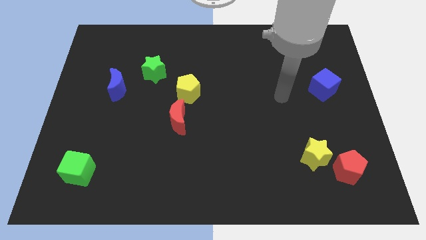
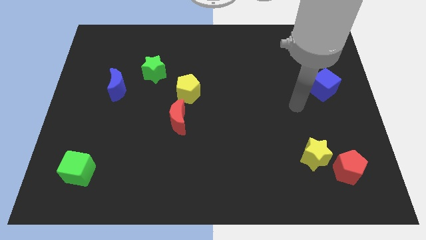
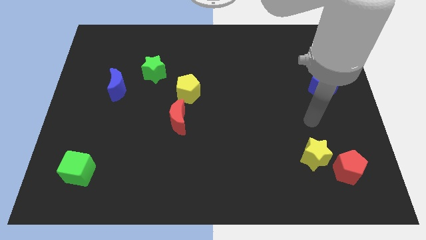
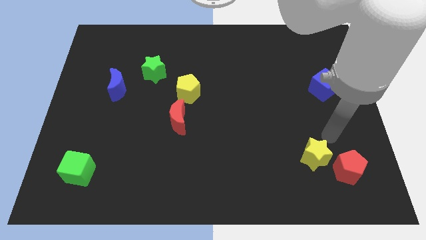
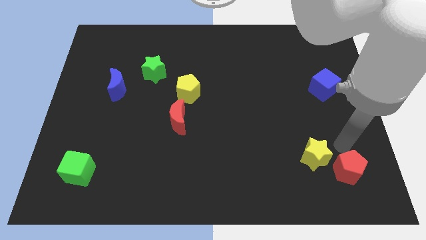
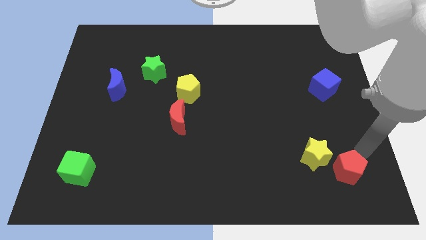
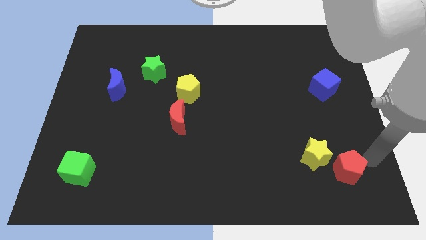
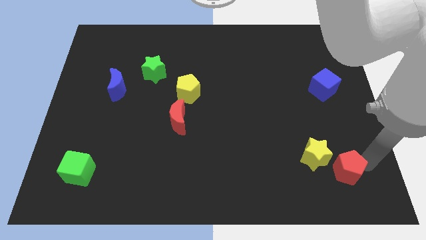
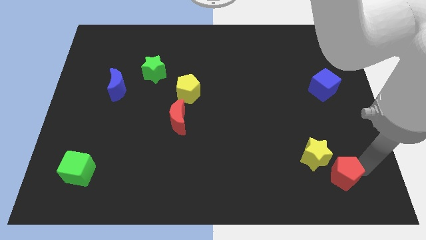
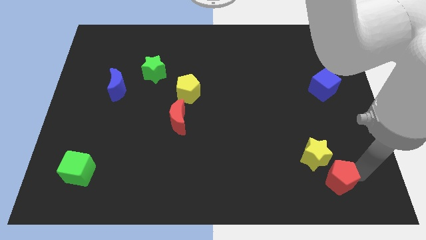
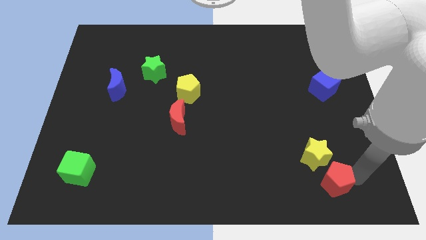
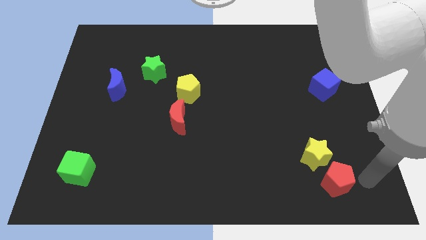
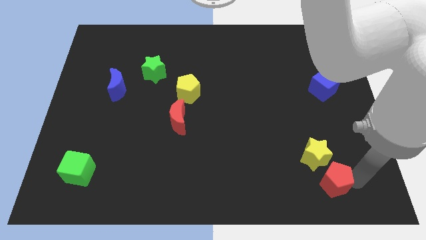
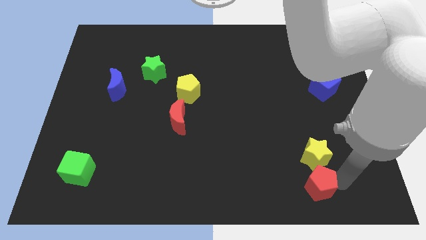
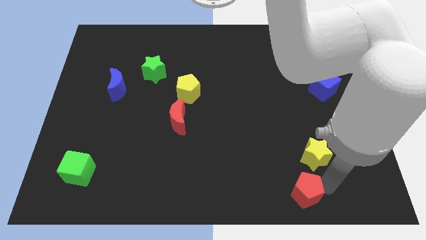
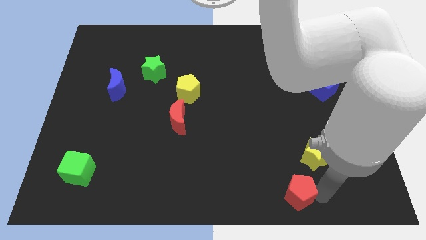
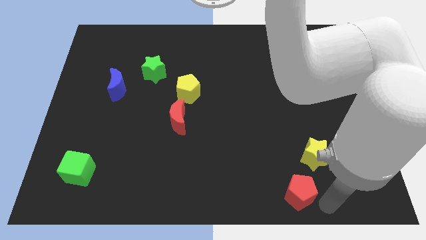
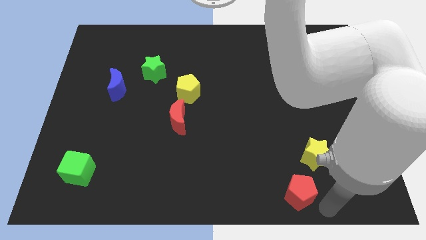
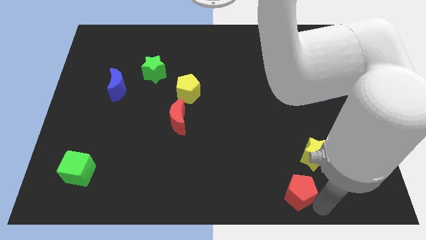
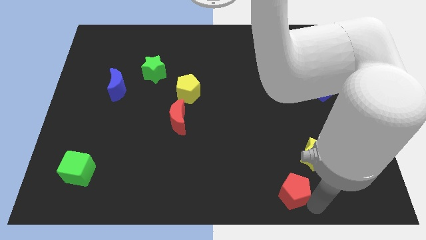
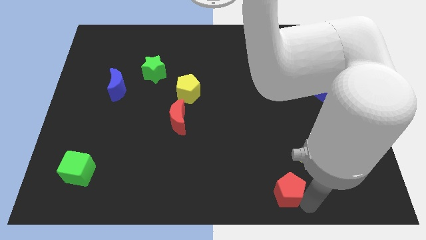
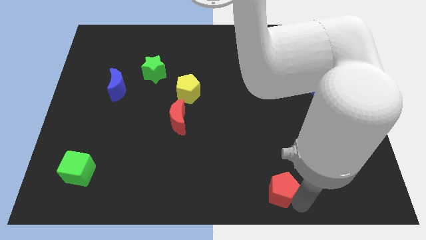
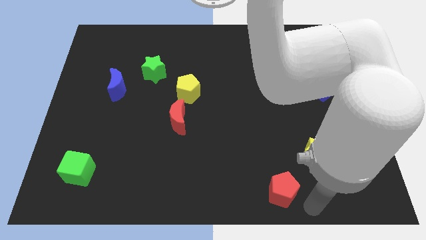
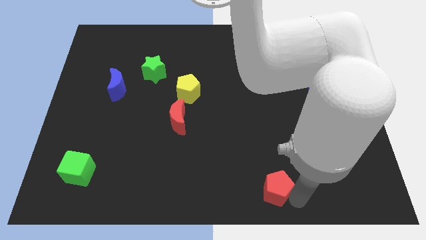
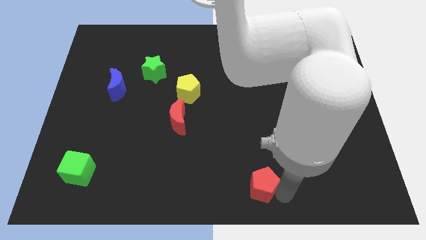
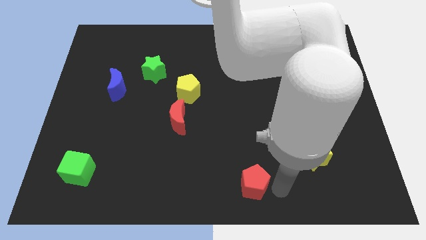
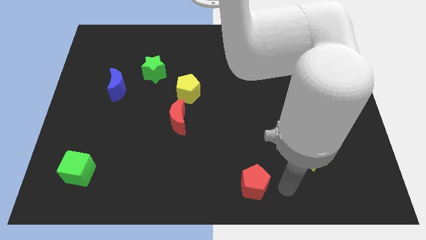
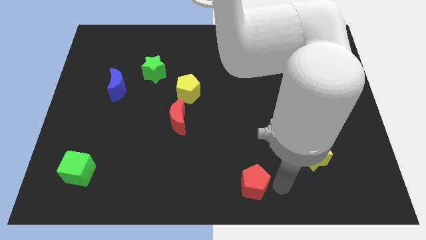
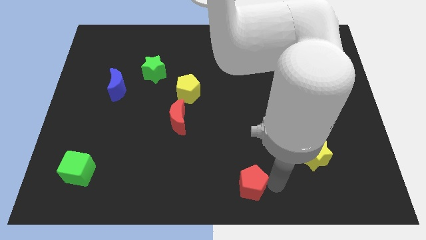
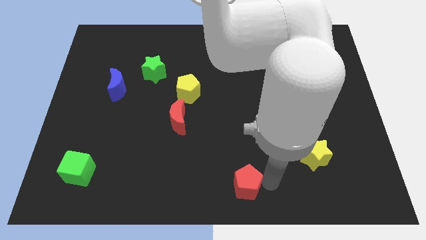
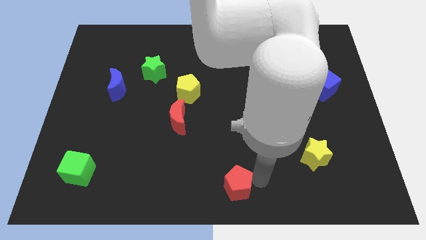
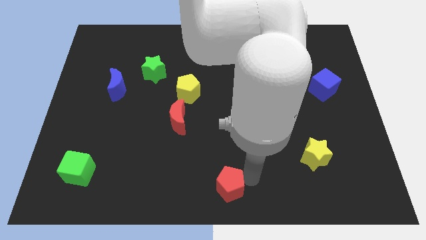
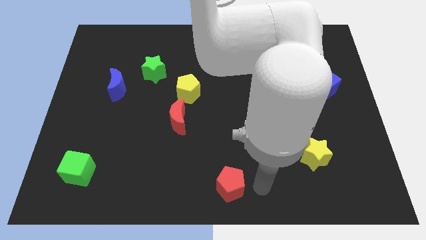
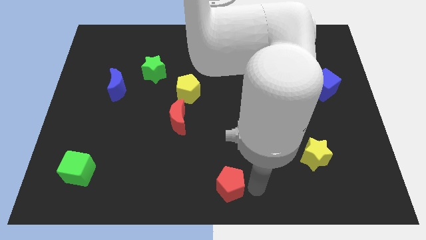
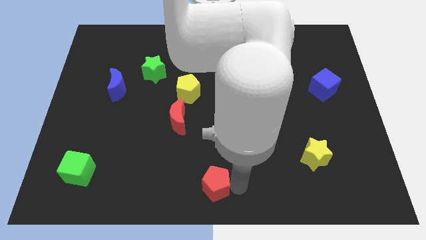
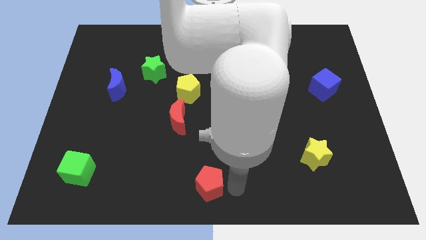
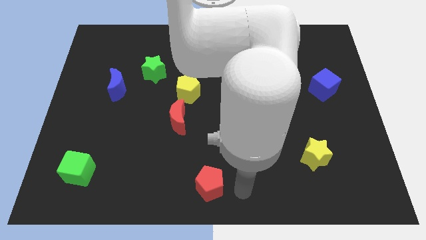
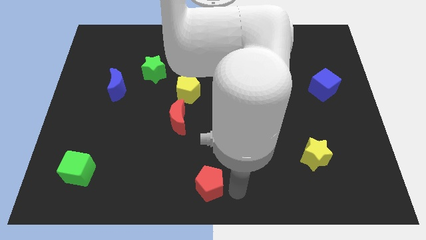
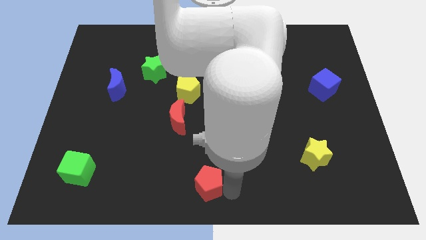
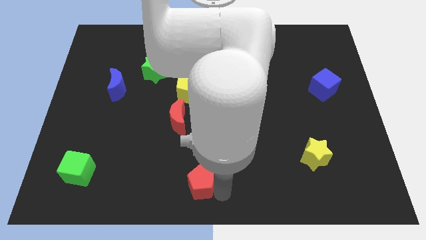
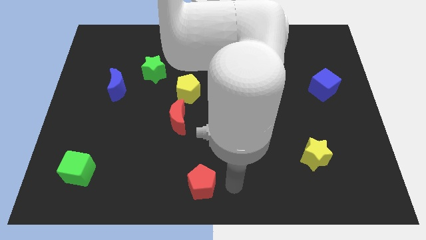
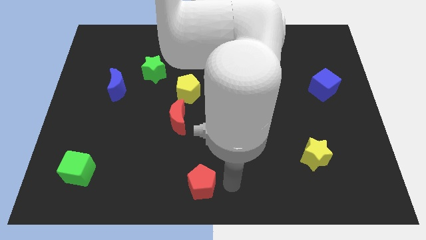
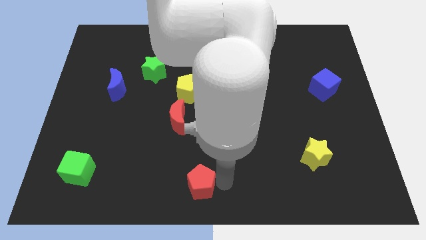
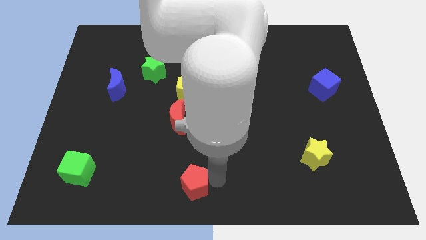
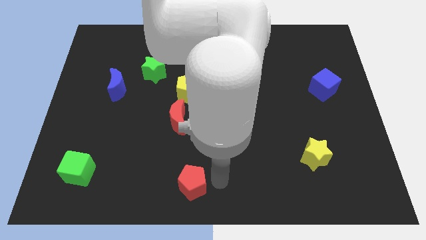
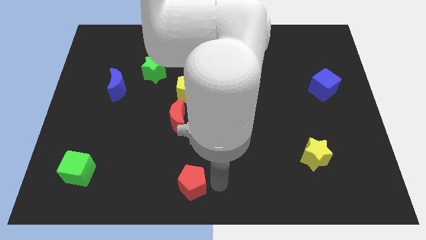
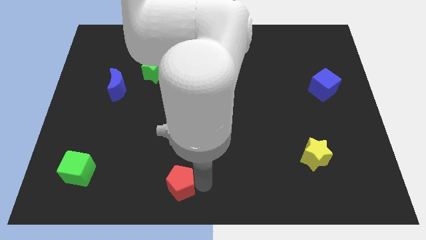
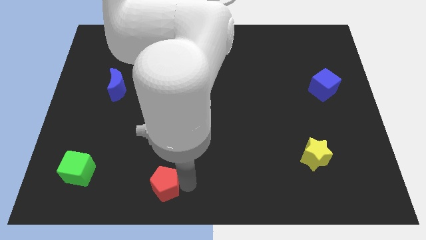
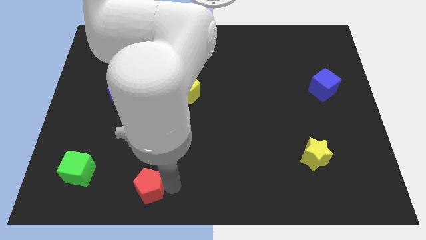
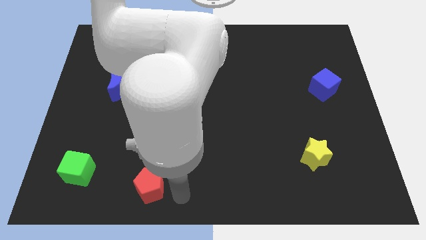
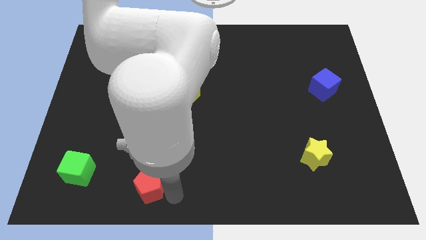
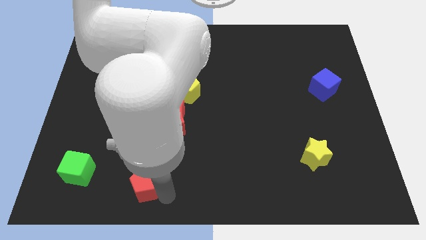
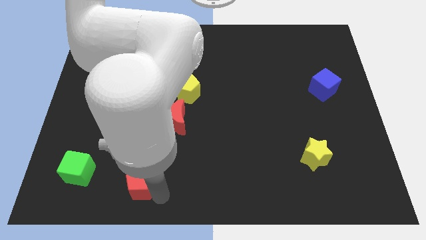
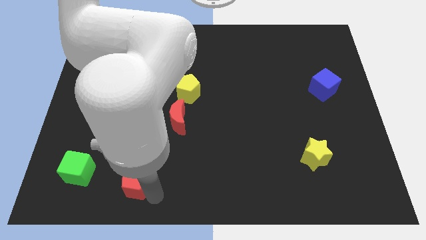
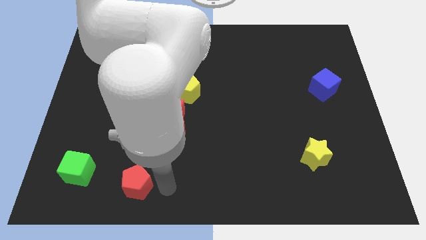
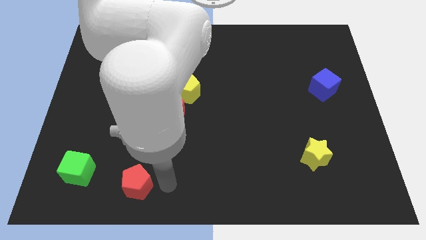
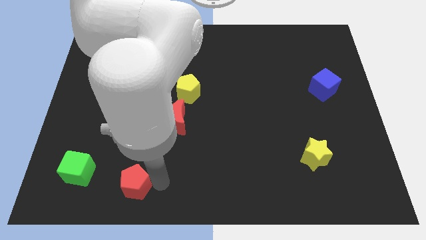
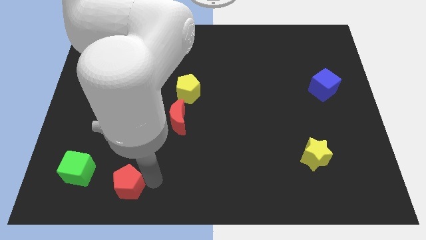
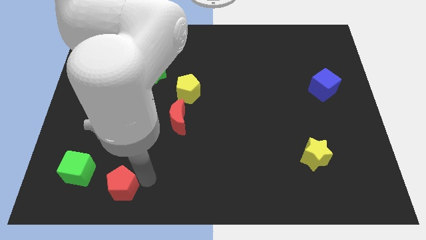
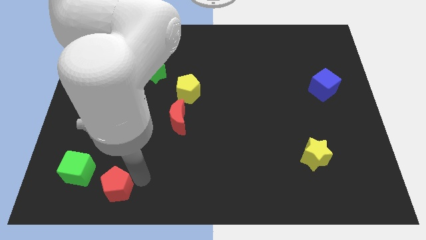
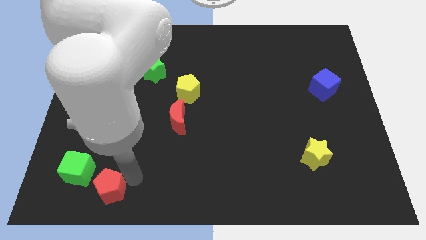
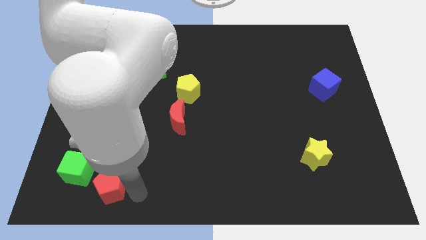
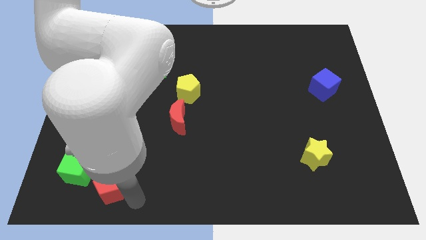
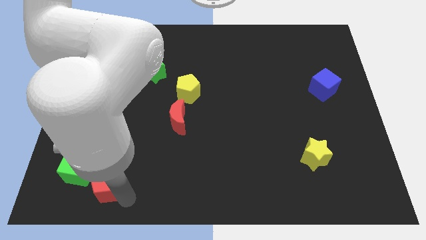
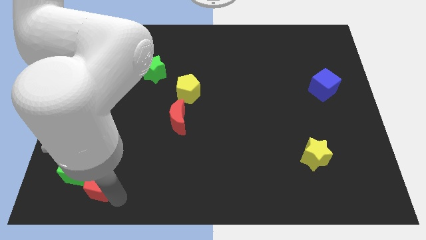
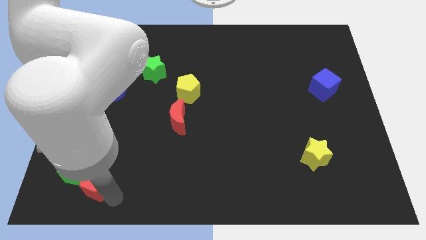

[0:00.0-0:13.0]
put the red pentagon close to the green cube
